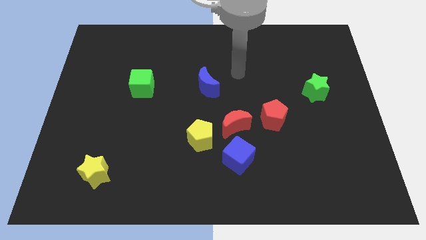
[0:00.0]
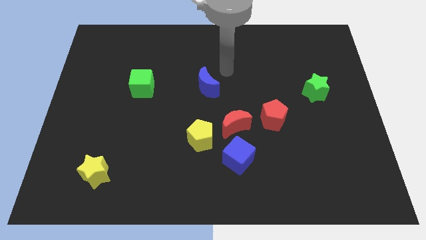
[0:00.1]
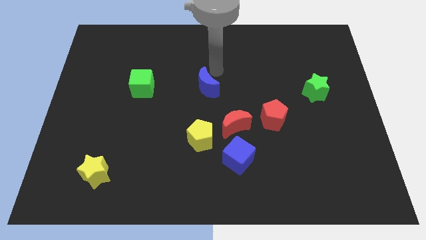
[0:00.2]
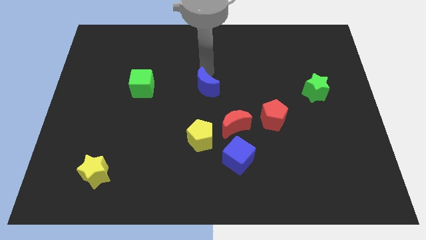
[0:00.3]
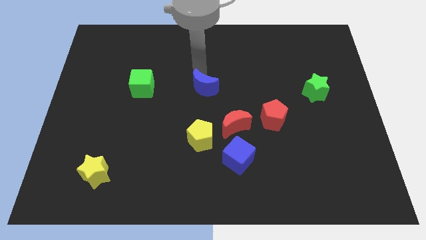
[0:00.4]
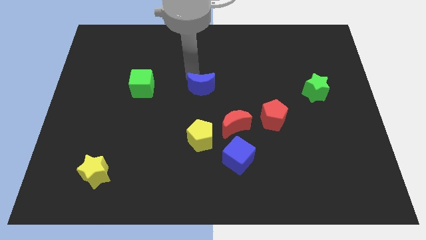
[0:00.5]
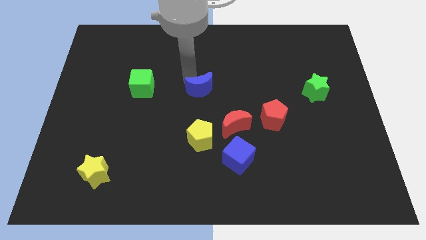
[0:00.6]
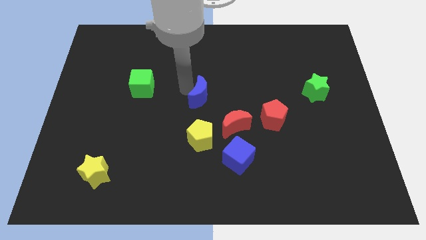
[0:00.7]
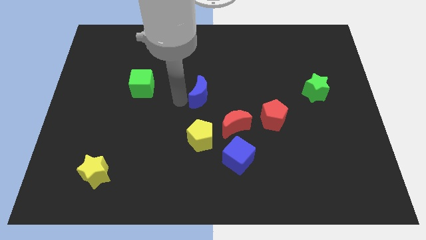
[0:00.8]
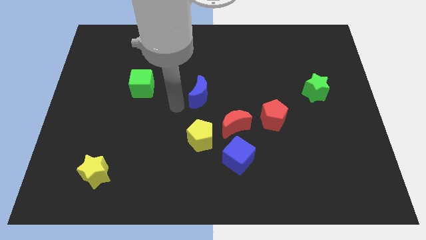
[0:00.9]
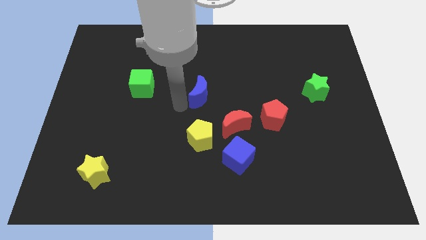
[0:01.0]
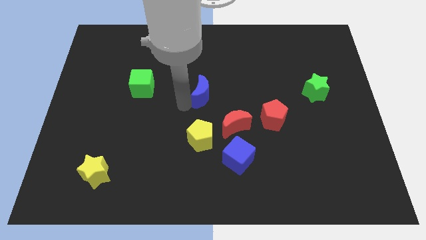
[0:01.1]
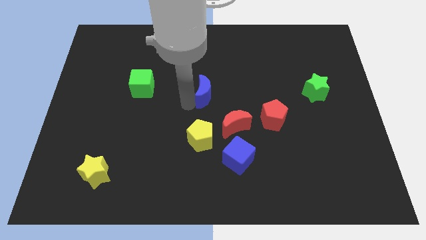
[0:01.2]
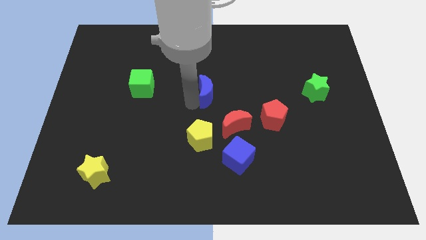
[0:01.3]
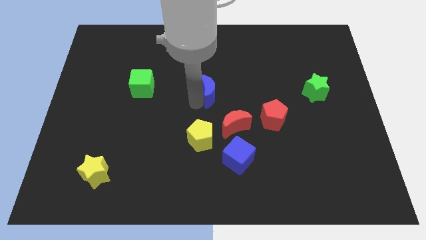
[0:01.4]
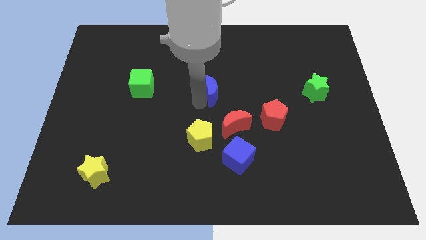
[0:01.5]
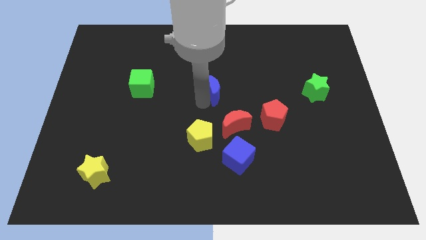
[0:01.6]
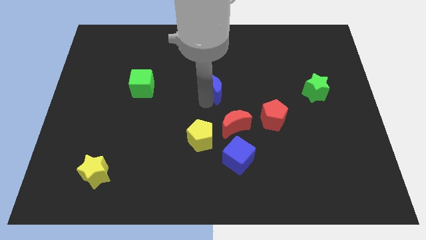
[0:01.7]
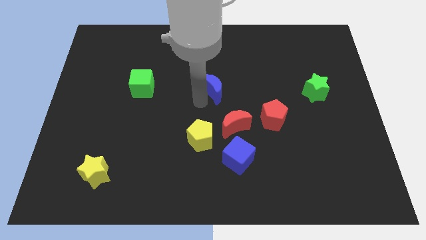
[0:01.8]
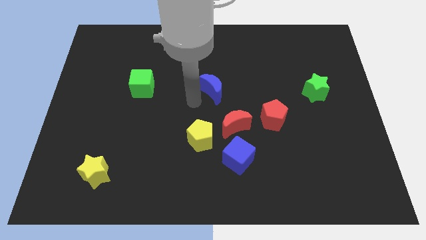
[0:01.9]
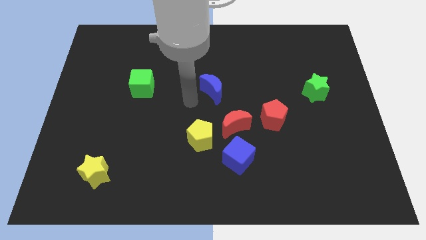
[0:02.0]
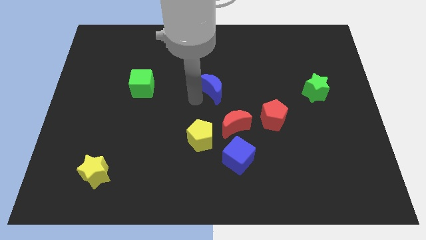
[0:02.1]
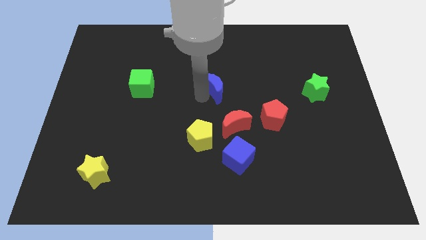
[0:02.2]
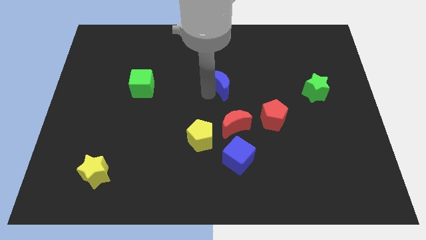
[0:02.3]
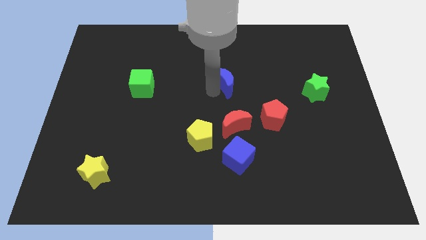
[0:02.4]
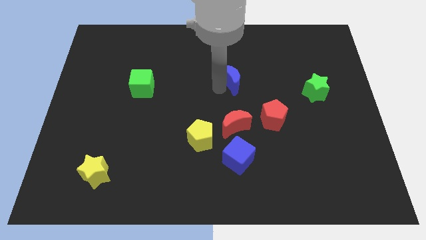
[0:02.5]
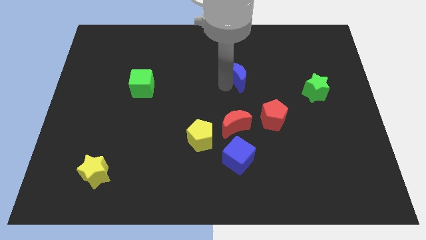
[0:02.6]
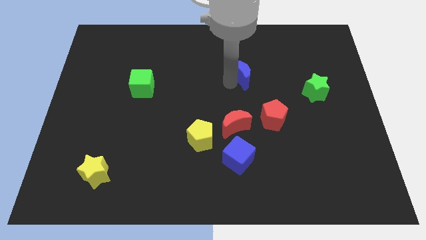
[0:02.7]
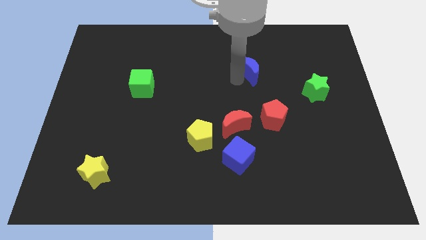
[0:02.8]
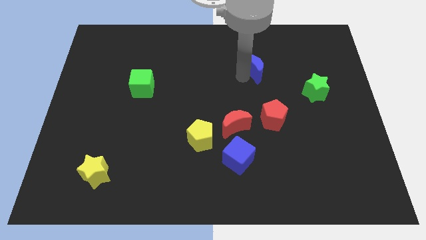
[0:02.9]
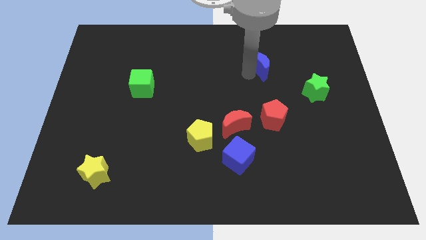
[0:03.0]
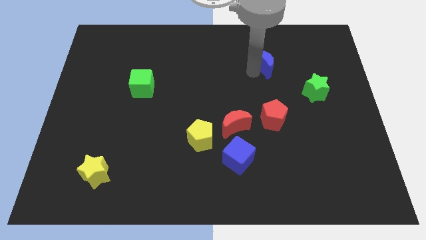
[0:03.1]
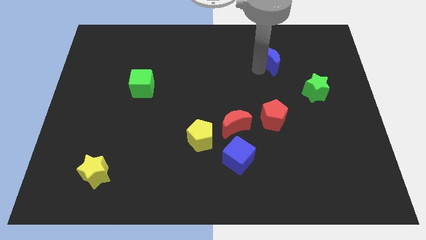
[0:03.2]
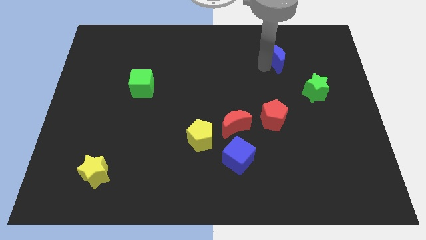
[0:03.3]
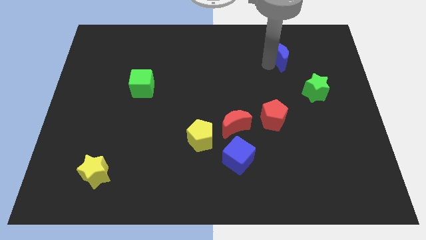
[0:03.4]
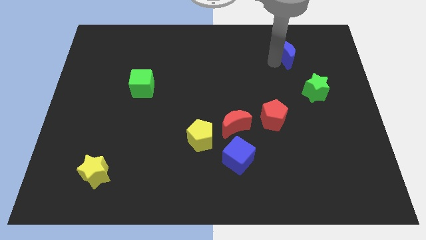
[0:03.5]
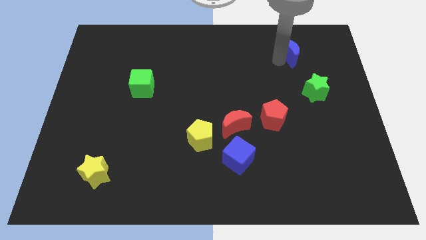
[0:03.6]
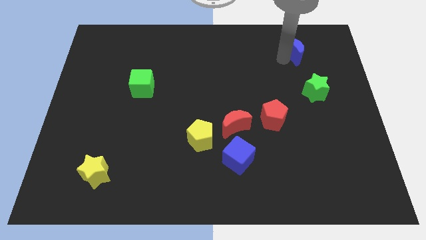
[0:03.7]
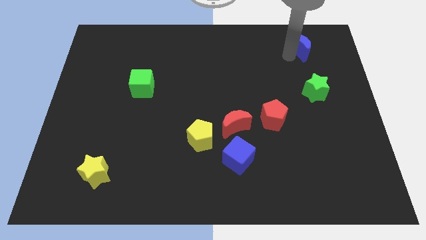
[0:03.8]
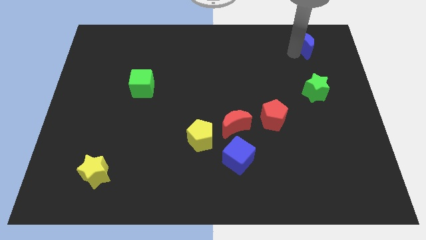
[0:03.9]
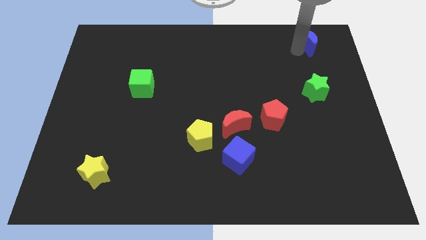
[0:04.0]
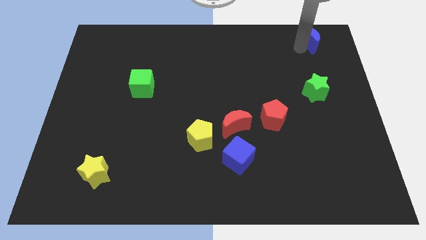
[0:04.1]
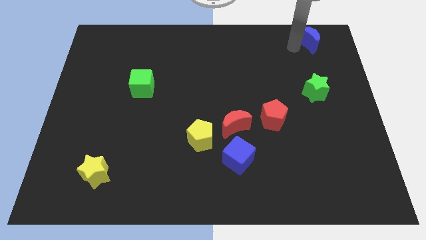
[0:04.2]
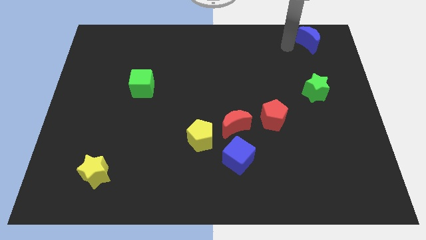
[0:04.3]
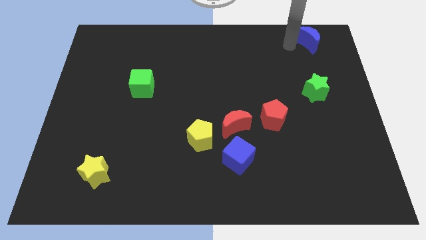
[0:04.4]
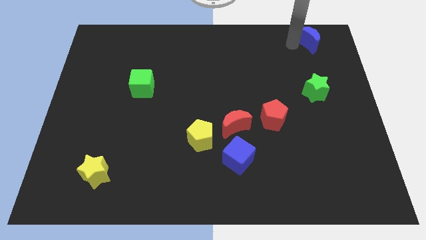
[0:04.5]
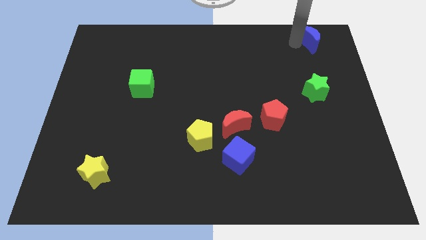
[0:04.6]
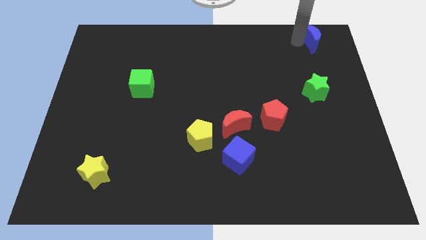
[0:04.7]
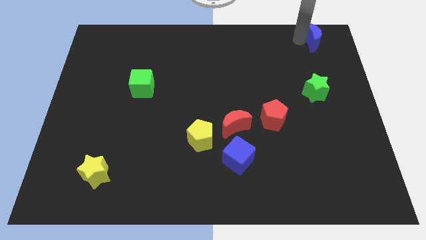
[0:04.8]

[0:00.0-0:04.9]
push the blue moon to the top right of the board

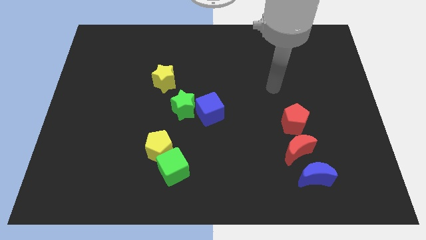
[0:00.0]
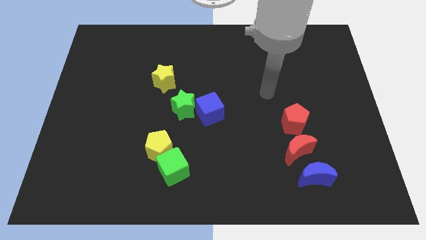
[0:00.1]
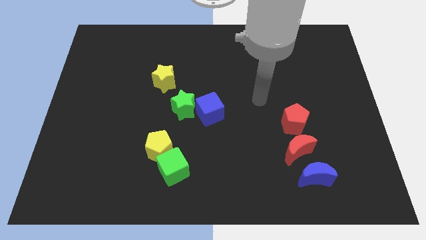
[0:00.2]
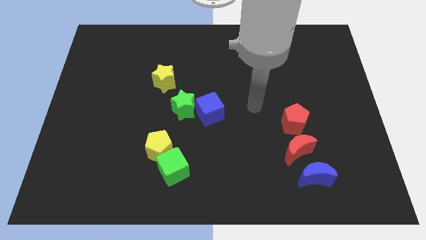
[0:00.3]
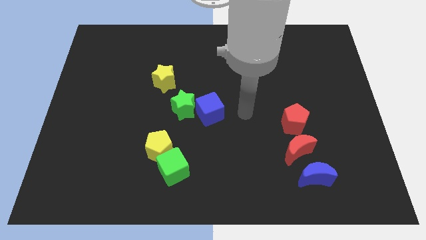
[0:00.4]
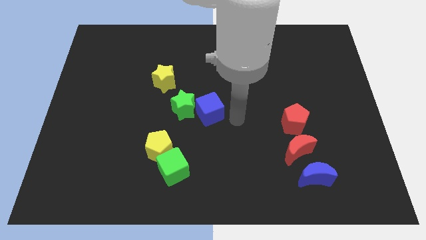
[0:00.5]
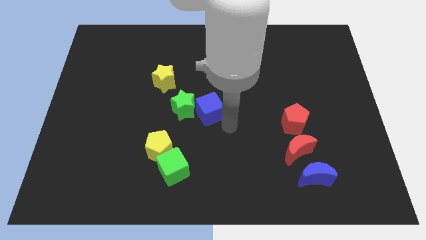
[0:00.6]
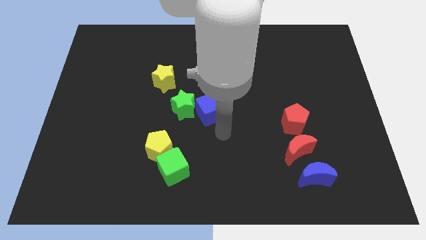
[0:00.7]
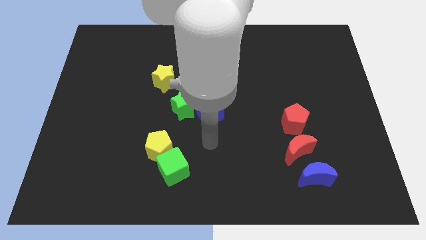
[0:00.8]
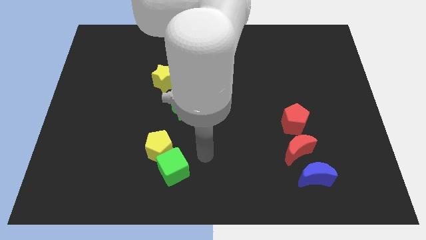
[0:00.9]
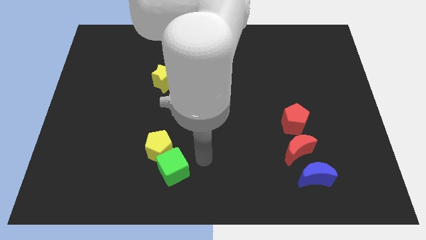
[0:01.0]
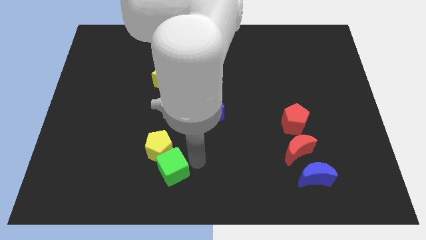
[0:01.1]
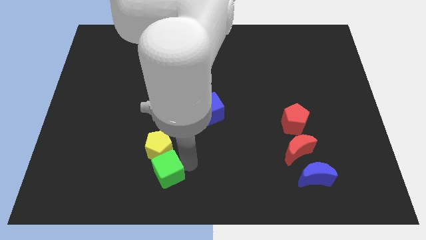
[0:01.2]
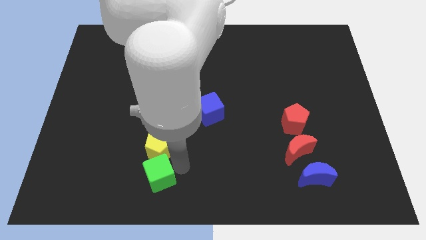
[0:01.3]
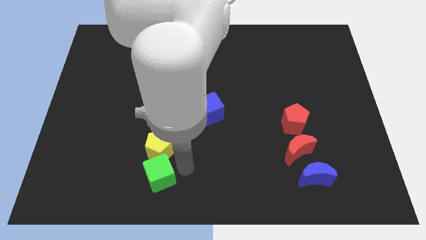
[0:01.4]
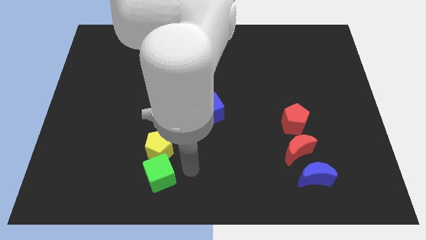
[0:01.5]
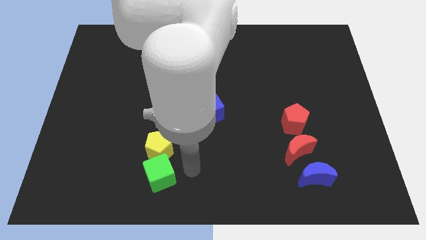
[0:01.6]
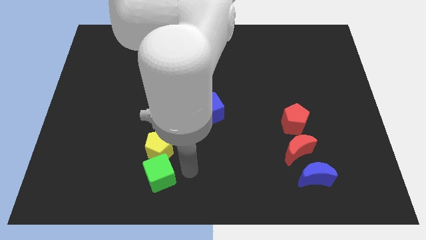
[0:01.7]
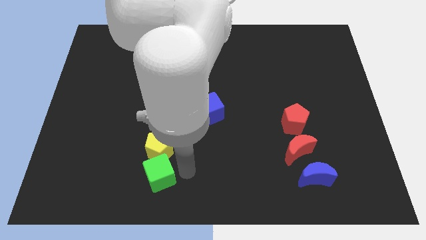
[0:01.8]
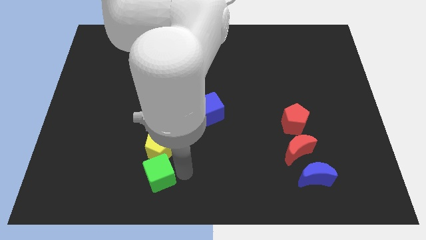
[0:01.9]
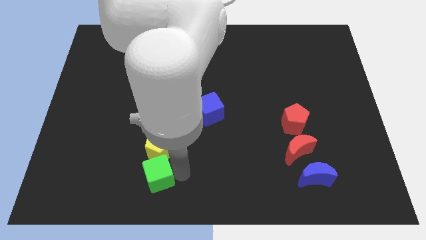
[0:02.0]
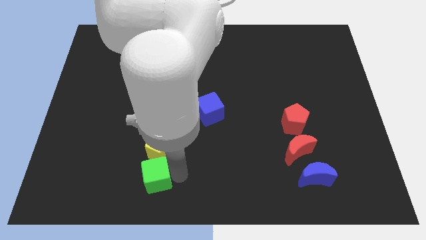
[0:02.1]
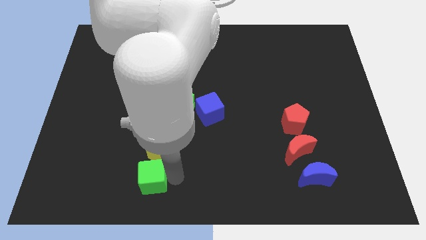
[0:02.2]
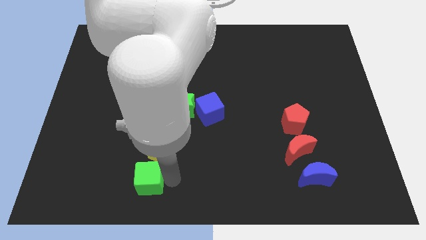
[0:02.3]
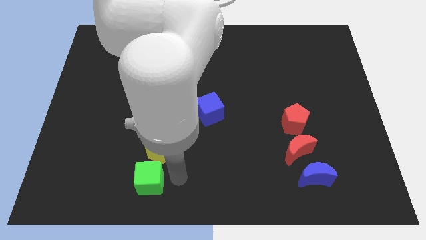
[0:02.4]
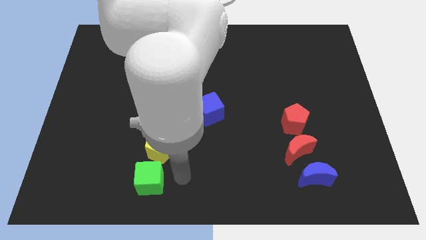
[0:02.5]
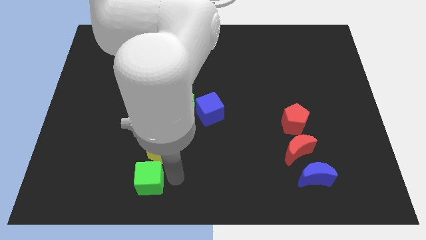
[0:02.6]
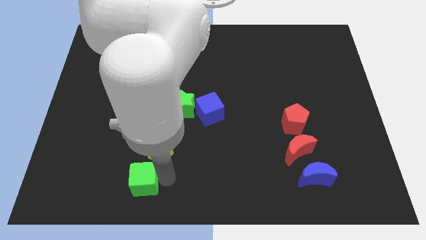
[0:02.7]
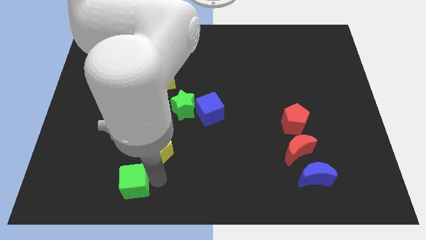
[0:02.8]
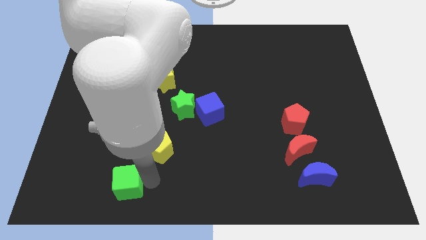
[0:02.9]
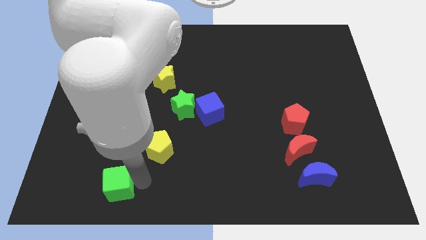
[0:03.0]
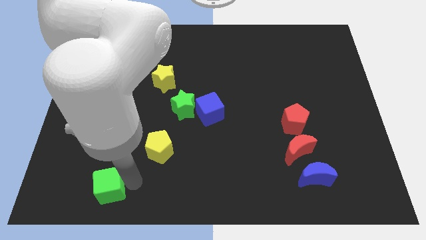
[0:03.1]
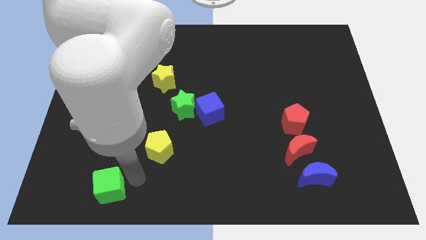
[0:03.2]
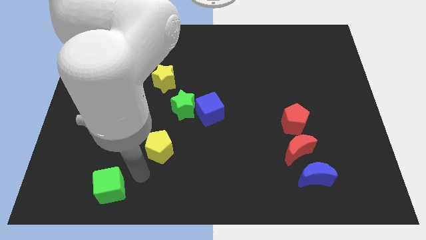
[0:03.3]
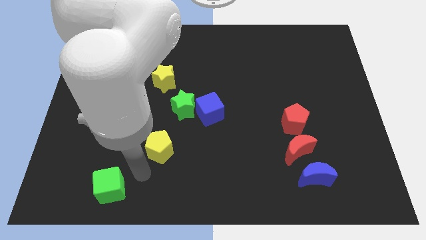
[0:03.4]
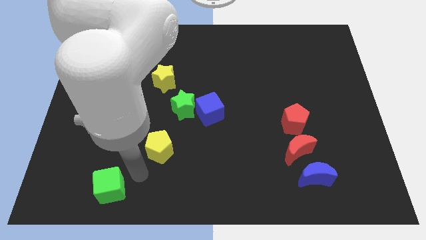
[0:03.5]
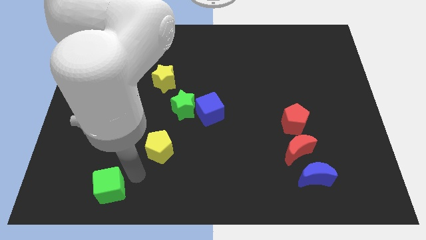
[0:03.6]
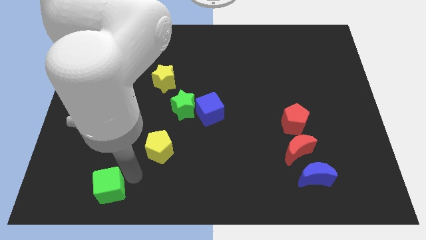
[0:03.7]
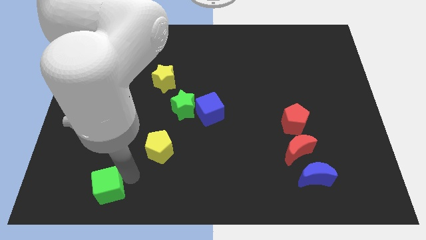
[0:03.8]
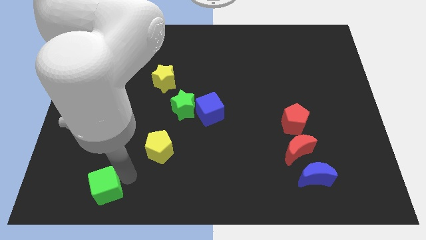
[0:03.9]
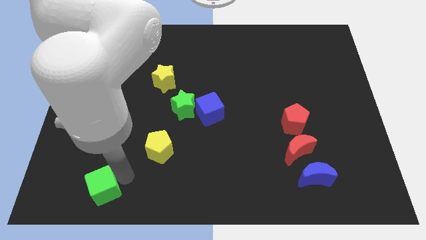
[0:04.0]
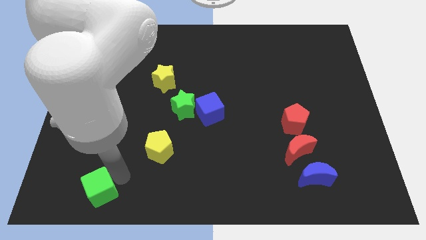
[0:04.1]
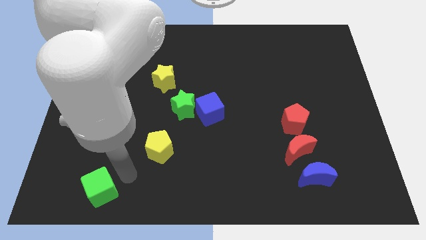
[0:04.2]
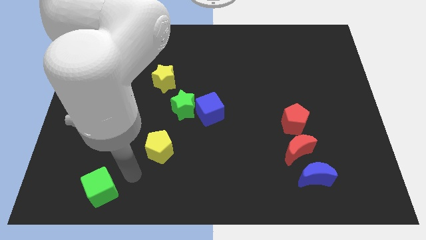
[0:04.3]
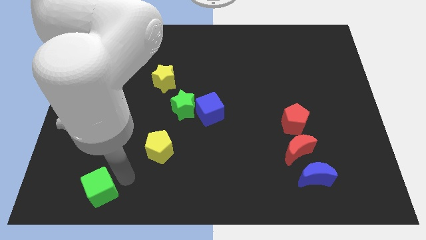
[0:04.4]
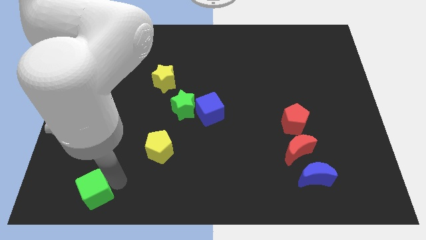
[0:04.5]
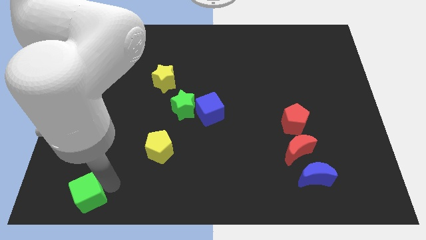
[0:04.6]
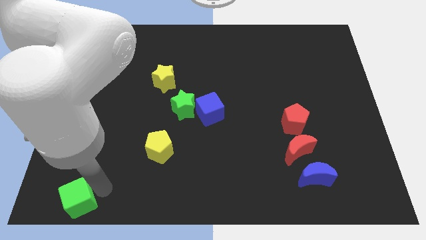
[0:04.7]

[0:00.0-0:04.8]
push the green cube to the bottom left of the board
